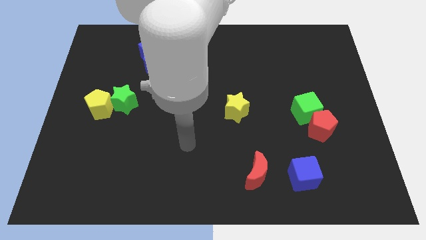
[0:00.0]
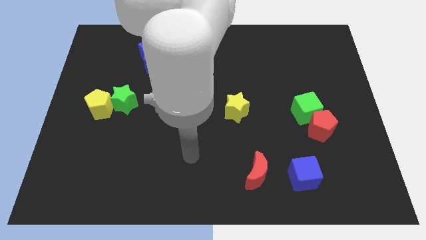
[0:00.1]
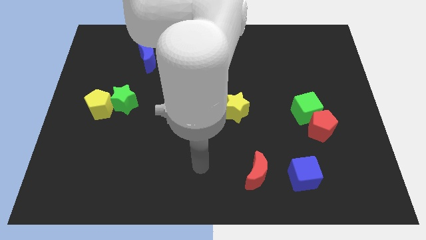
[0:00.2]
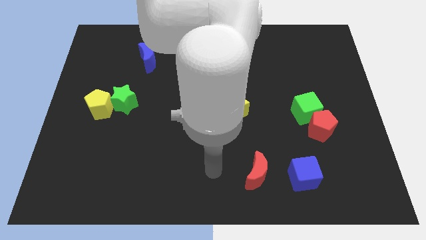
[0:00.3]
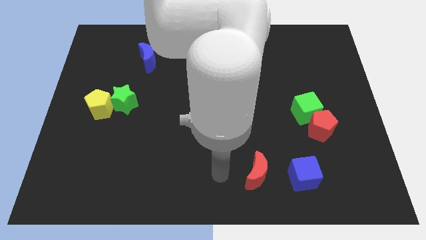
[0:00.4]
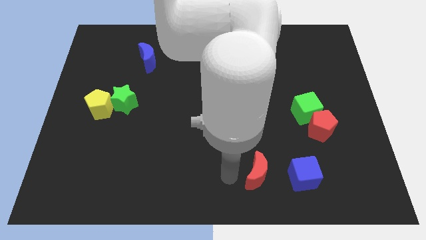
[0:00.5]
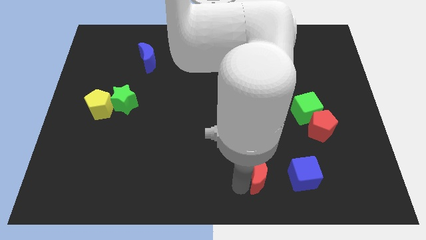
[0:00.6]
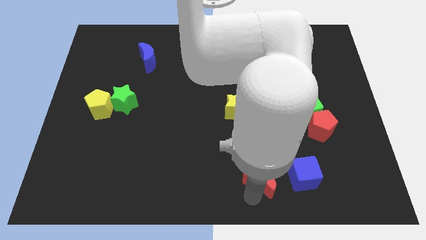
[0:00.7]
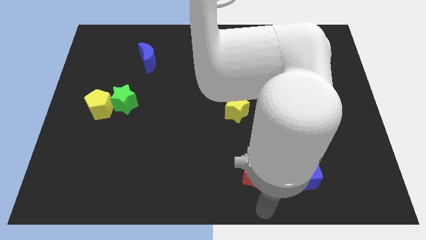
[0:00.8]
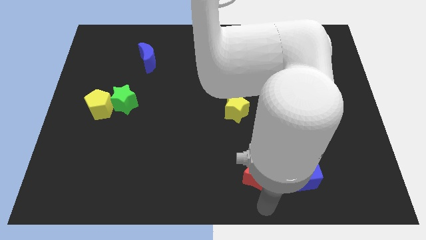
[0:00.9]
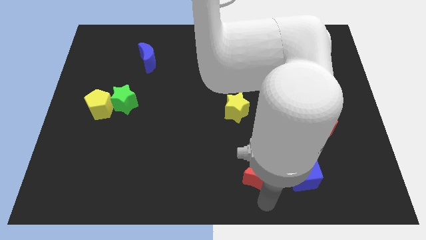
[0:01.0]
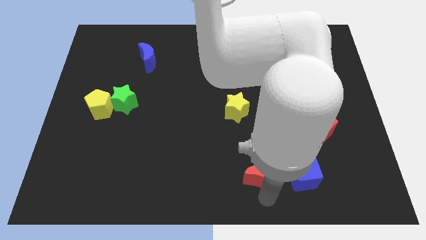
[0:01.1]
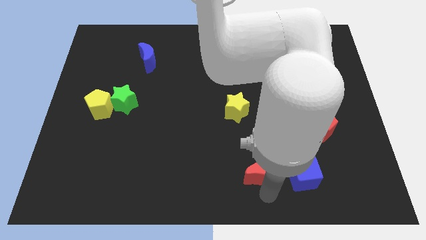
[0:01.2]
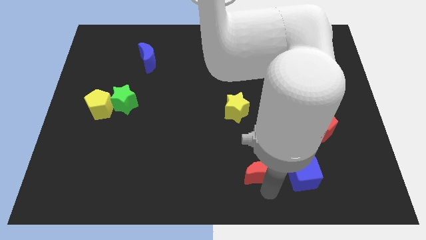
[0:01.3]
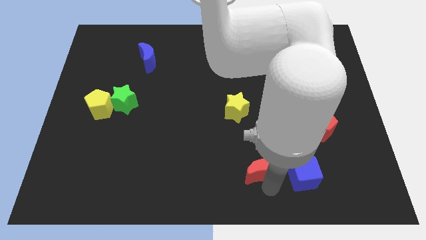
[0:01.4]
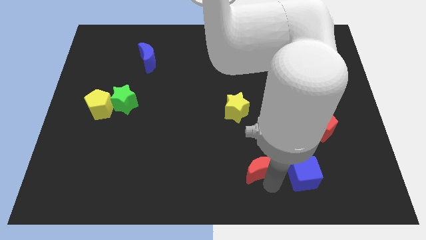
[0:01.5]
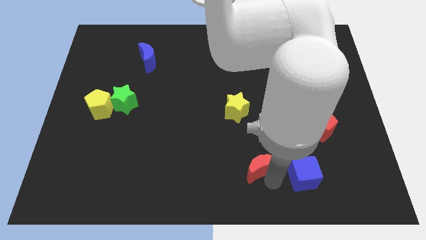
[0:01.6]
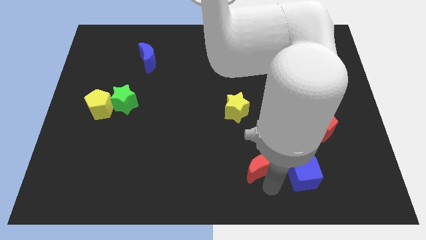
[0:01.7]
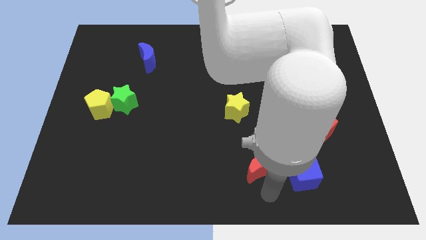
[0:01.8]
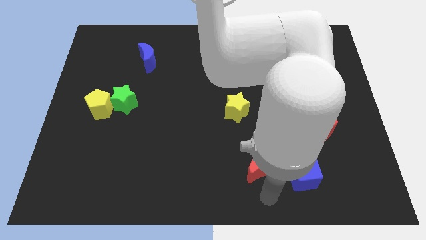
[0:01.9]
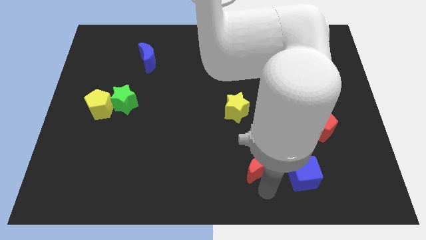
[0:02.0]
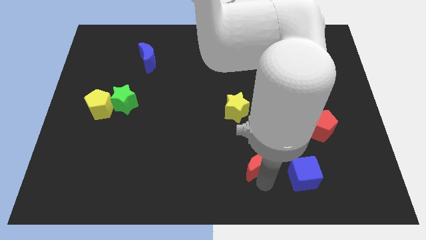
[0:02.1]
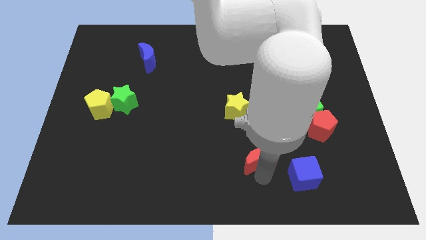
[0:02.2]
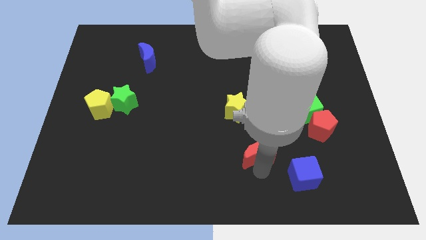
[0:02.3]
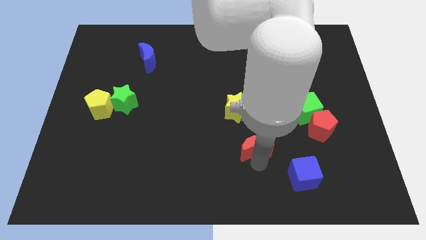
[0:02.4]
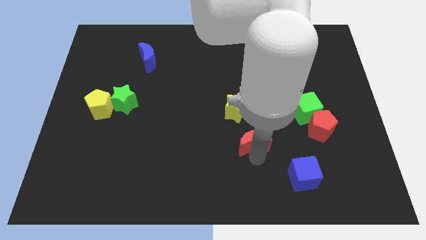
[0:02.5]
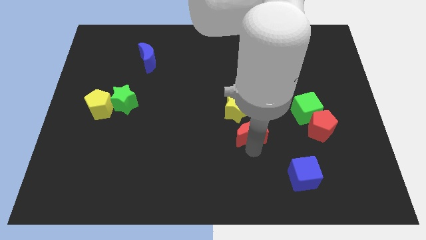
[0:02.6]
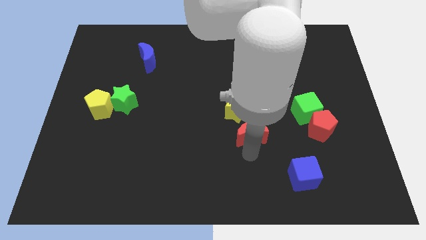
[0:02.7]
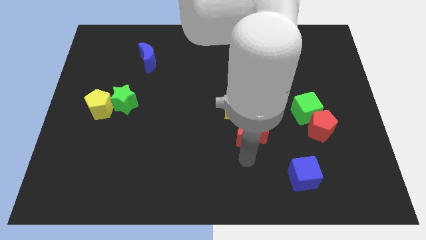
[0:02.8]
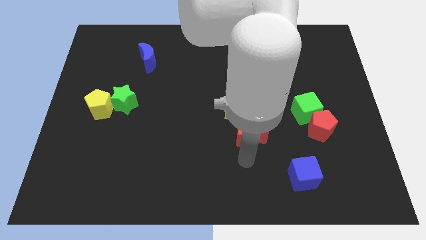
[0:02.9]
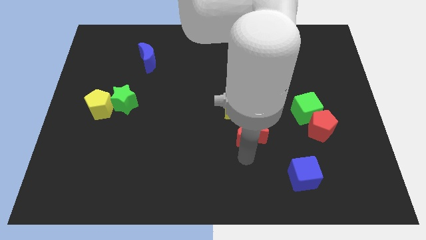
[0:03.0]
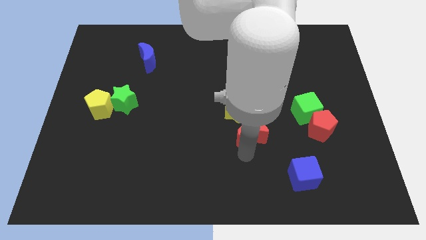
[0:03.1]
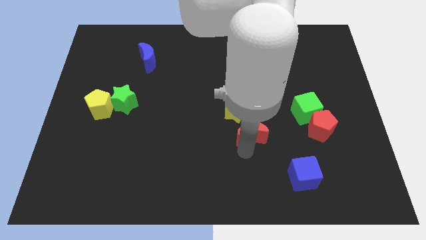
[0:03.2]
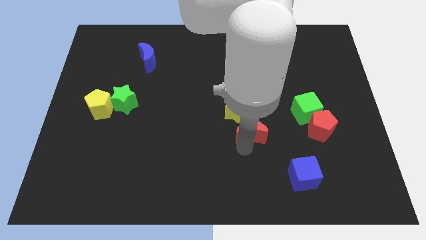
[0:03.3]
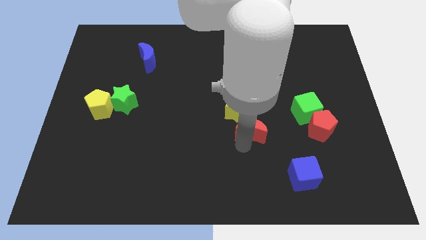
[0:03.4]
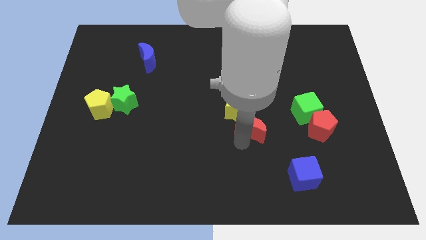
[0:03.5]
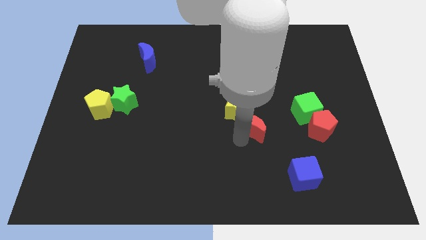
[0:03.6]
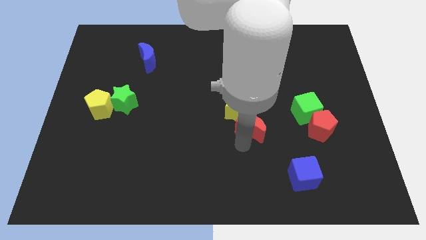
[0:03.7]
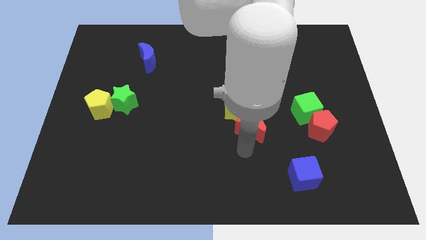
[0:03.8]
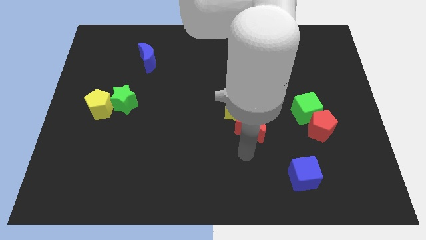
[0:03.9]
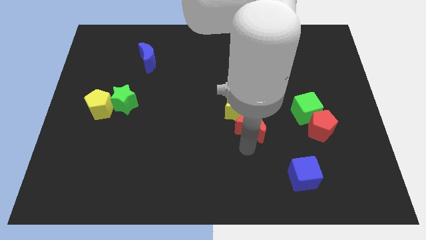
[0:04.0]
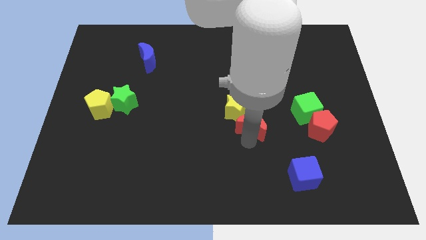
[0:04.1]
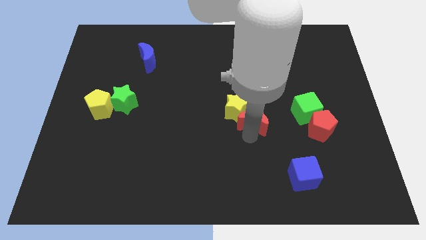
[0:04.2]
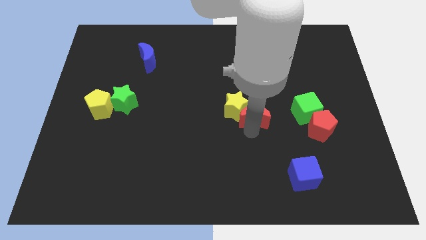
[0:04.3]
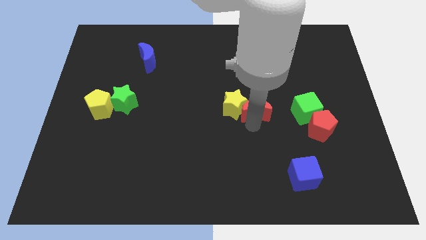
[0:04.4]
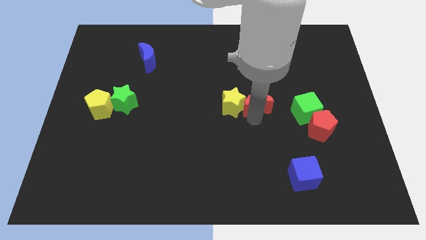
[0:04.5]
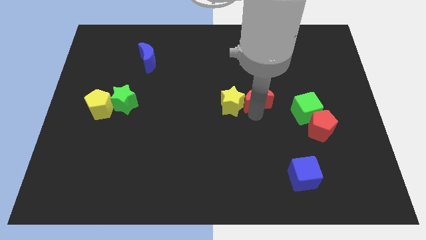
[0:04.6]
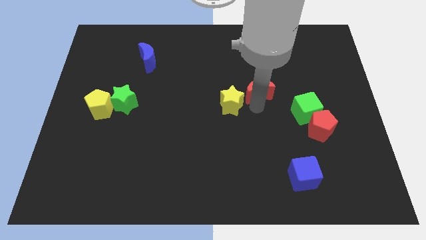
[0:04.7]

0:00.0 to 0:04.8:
move the red moon up

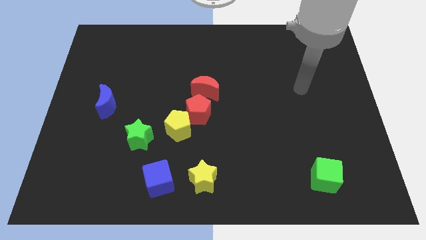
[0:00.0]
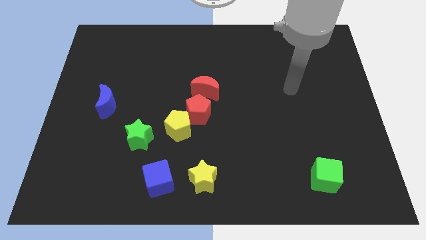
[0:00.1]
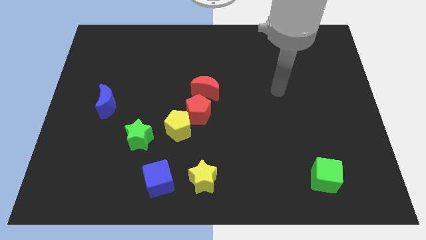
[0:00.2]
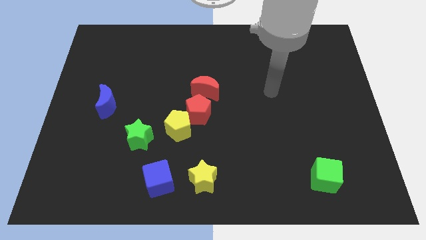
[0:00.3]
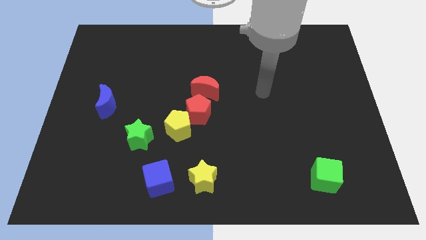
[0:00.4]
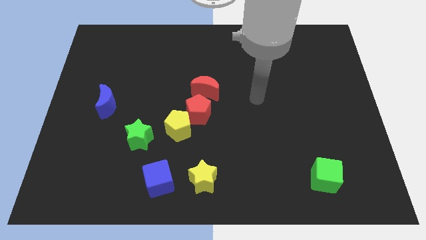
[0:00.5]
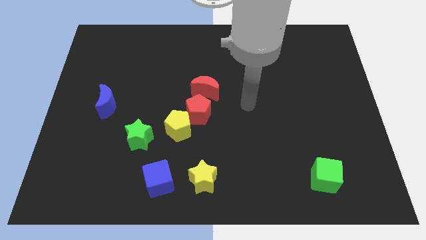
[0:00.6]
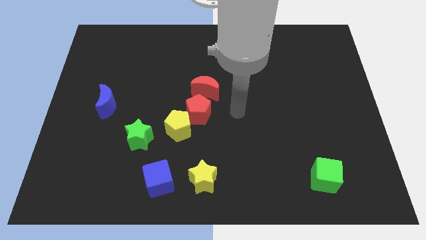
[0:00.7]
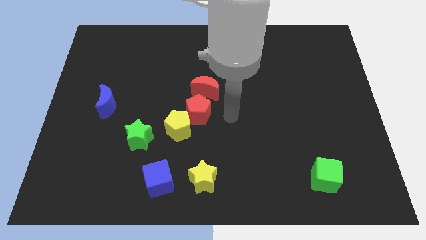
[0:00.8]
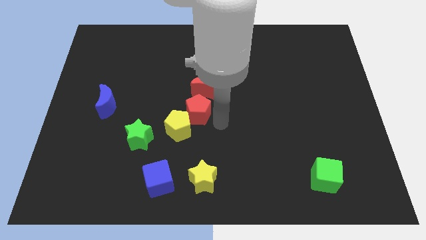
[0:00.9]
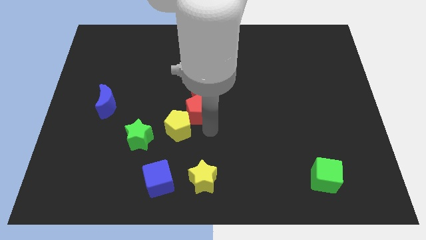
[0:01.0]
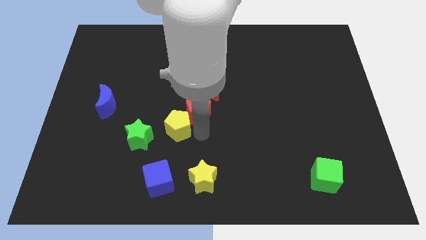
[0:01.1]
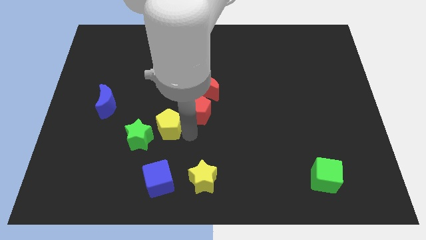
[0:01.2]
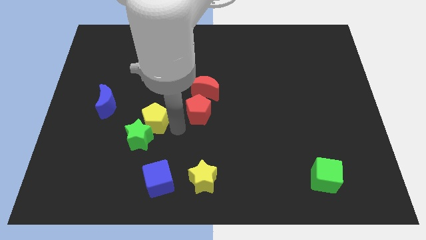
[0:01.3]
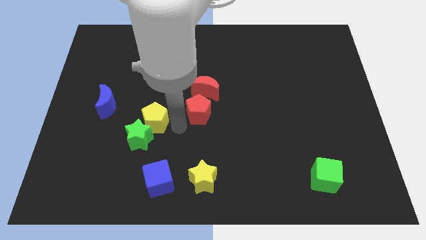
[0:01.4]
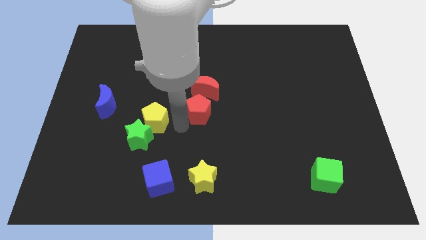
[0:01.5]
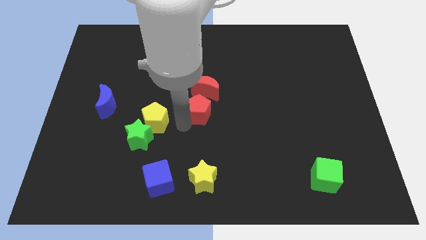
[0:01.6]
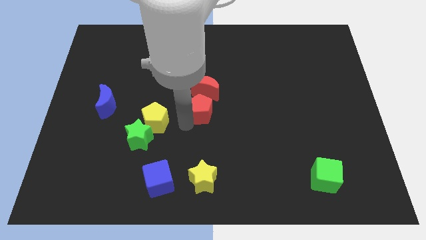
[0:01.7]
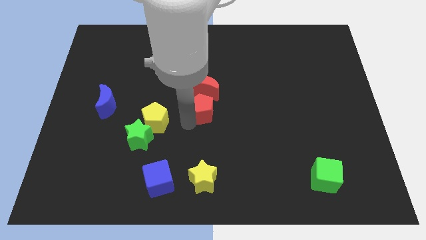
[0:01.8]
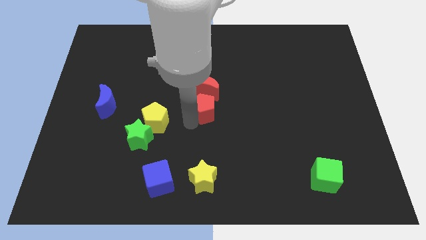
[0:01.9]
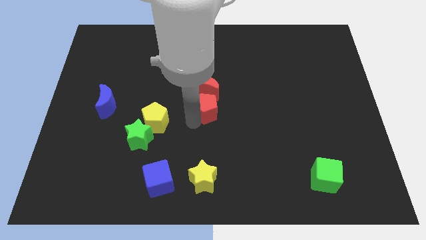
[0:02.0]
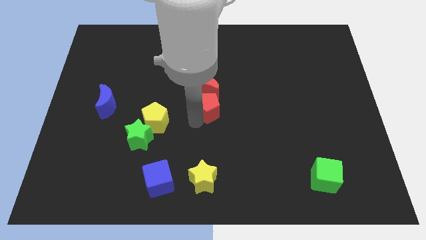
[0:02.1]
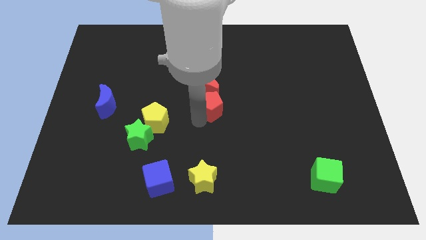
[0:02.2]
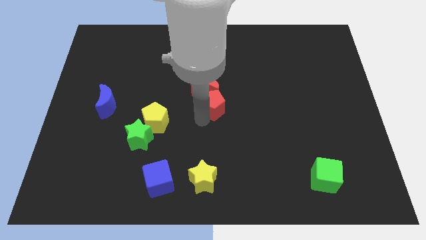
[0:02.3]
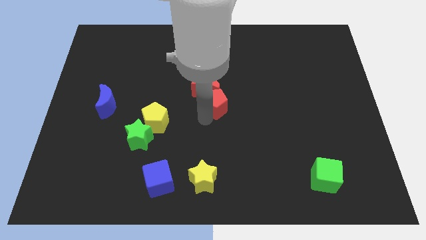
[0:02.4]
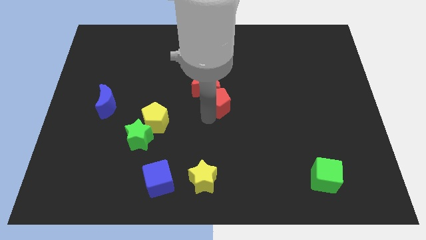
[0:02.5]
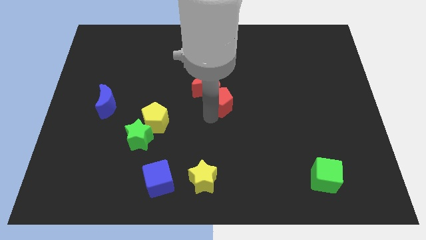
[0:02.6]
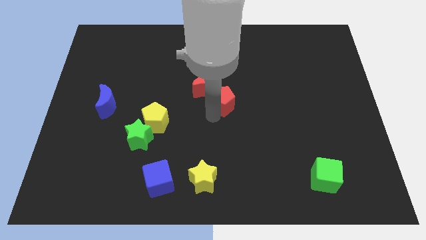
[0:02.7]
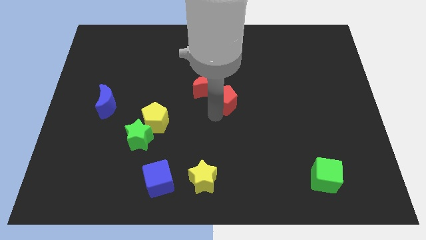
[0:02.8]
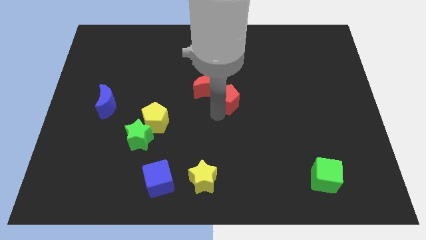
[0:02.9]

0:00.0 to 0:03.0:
slide the red pentagon somewhat diagonally upwards and to the right

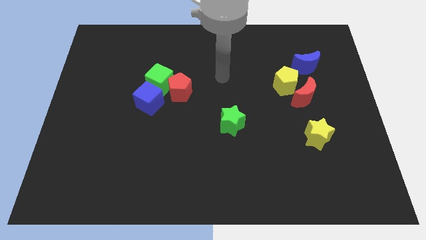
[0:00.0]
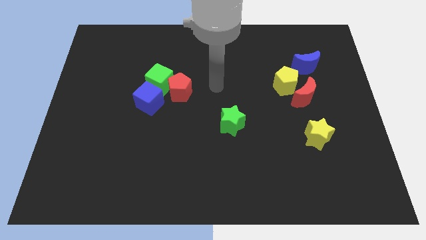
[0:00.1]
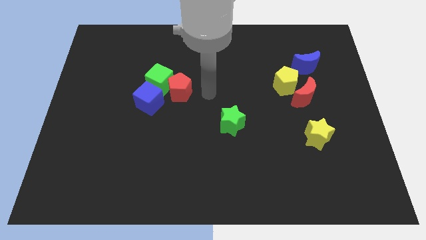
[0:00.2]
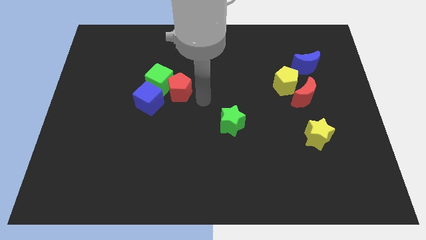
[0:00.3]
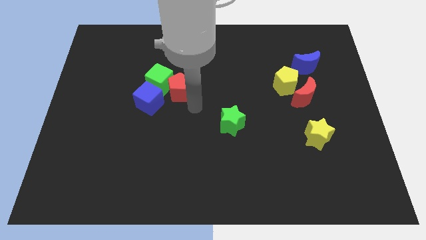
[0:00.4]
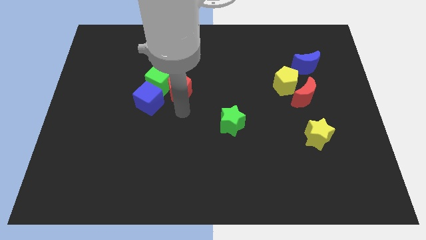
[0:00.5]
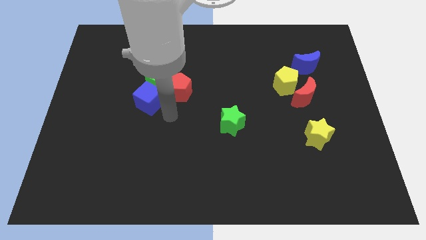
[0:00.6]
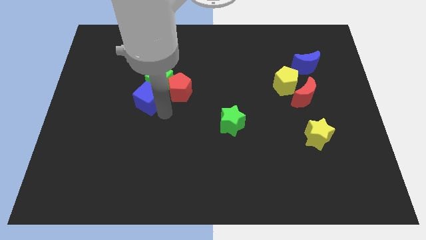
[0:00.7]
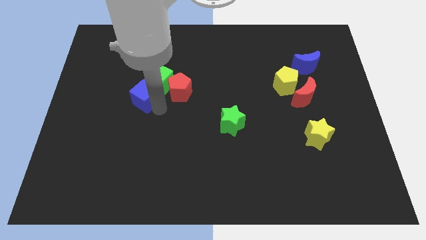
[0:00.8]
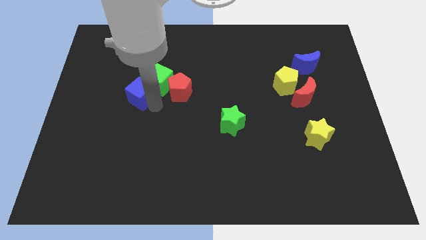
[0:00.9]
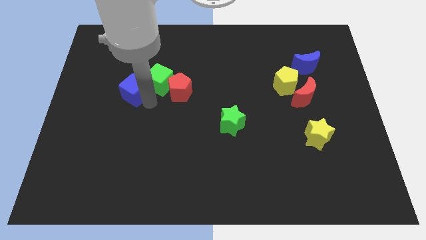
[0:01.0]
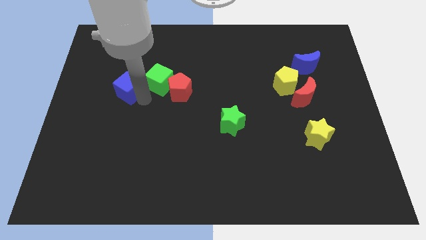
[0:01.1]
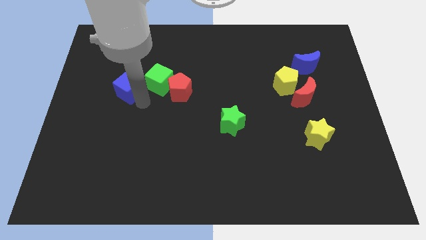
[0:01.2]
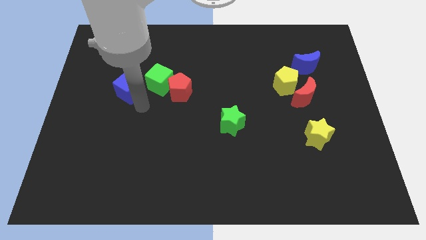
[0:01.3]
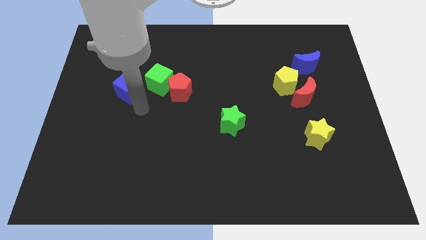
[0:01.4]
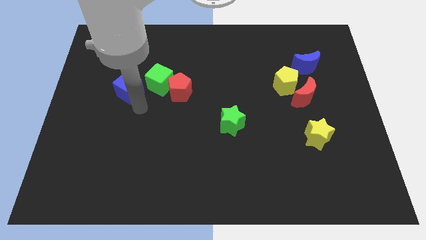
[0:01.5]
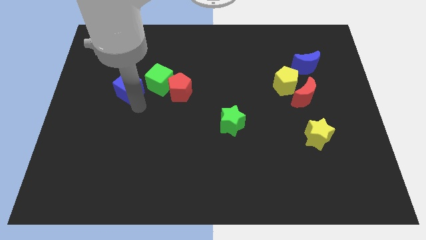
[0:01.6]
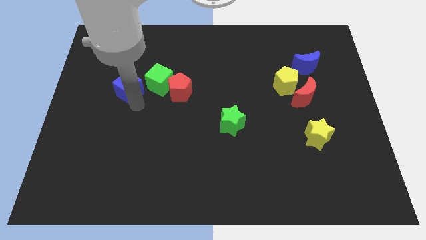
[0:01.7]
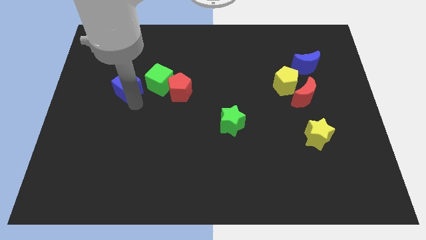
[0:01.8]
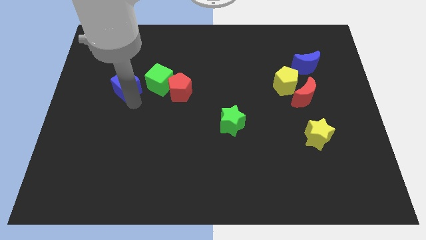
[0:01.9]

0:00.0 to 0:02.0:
slide the blue cube a little up and then to the left
